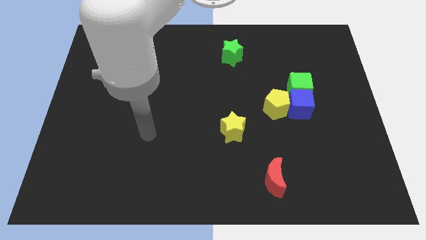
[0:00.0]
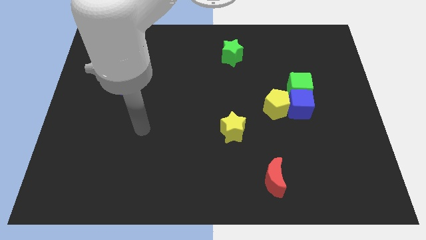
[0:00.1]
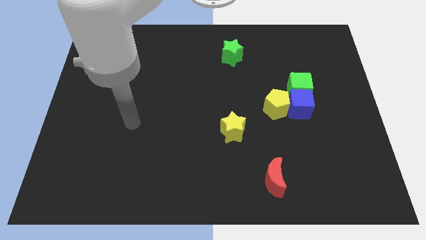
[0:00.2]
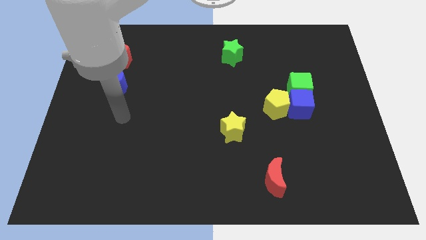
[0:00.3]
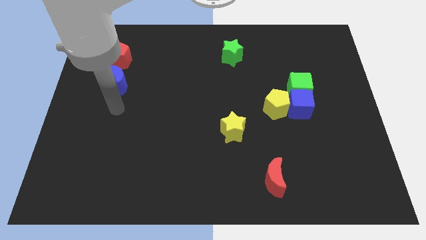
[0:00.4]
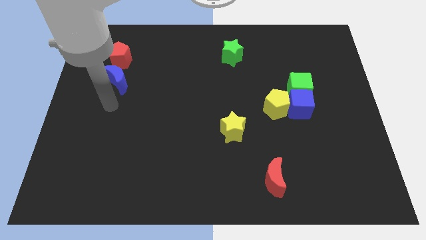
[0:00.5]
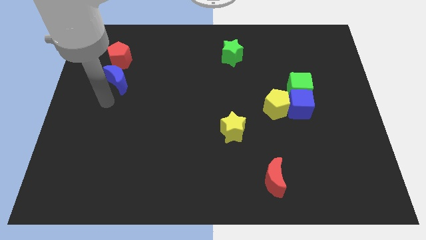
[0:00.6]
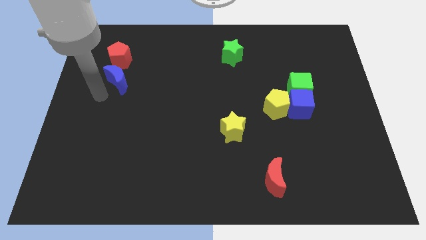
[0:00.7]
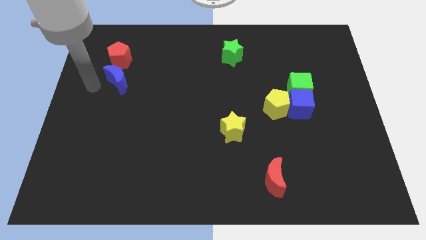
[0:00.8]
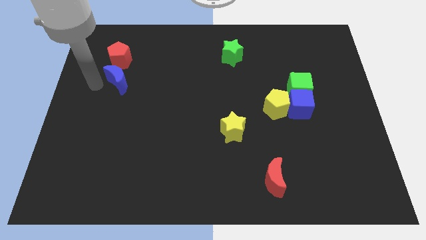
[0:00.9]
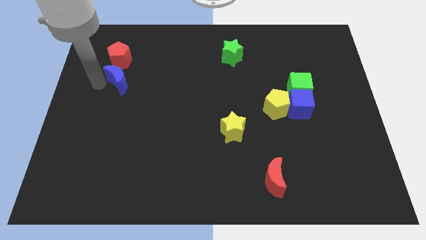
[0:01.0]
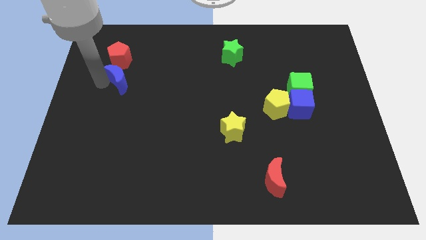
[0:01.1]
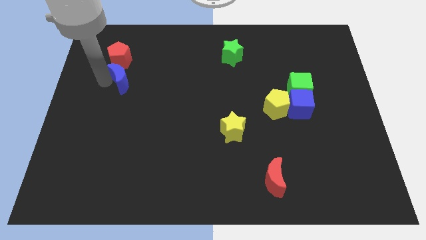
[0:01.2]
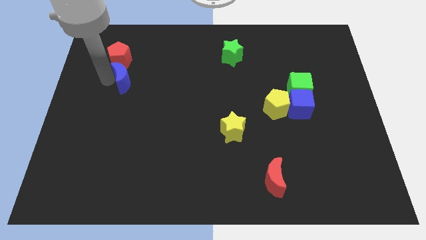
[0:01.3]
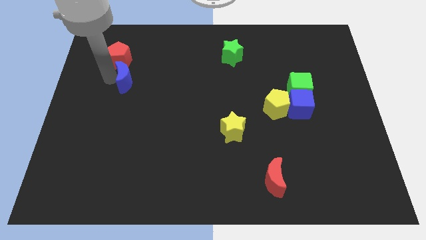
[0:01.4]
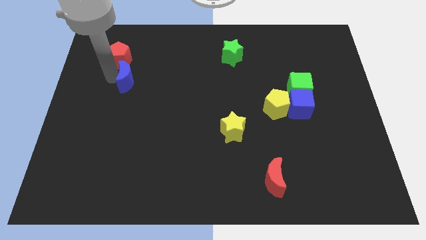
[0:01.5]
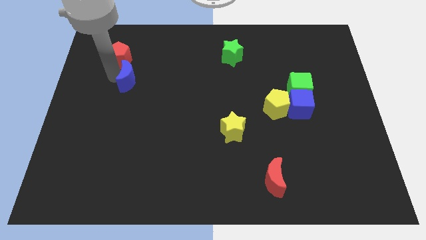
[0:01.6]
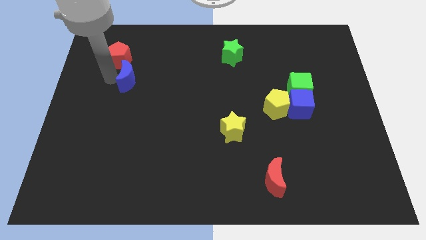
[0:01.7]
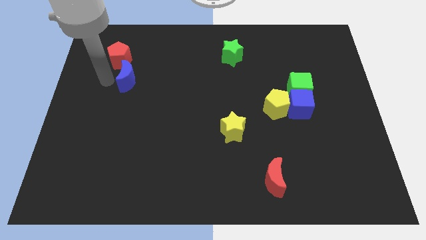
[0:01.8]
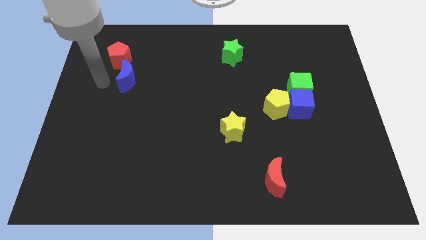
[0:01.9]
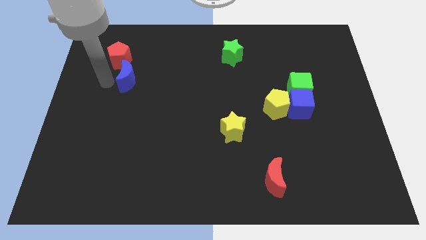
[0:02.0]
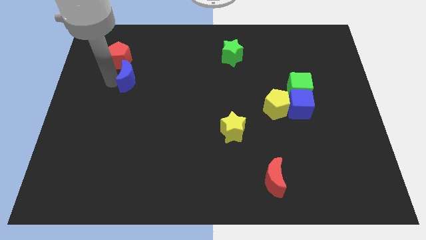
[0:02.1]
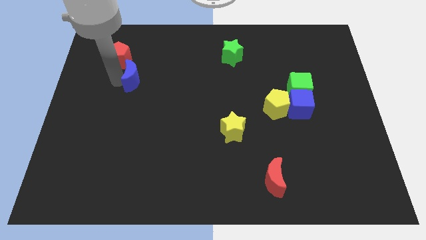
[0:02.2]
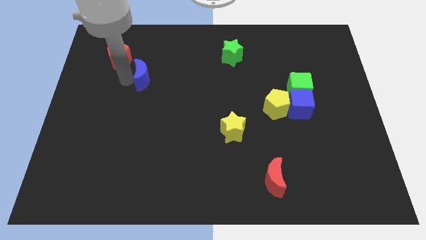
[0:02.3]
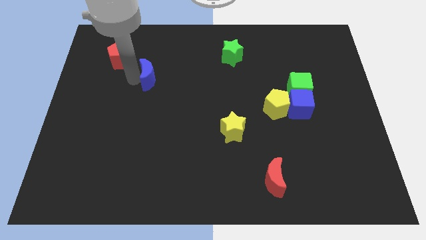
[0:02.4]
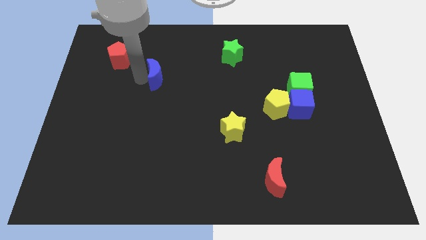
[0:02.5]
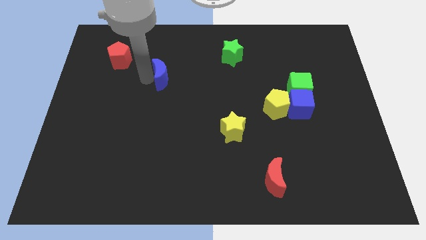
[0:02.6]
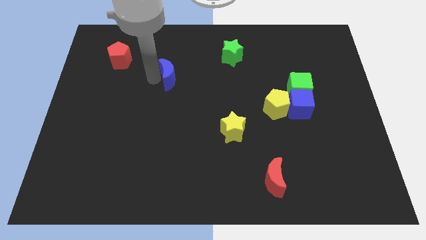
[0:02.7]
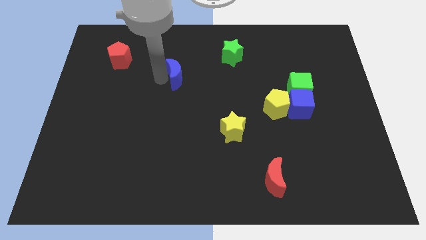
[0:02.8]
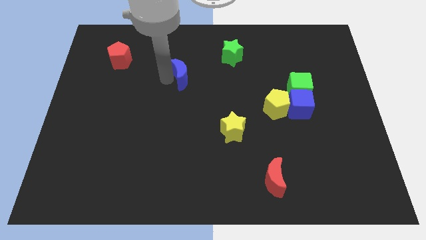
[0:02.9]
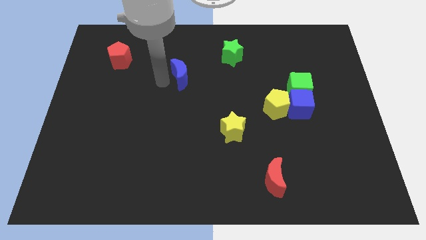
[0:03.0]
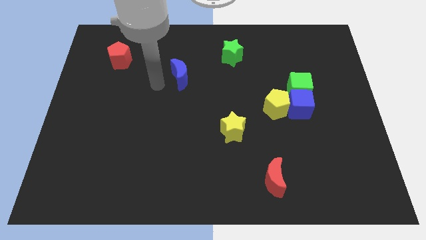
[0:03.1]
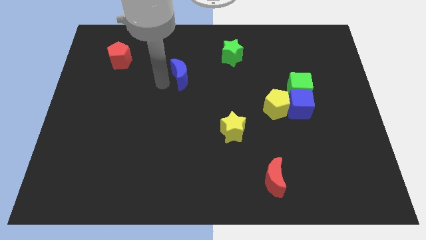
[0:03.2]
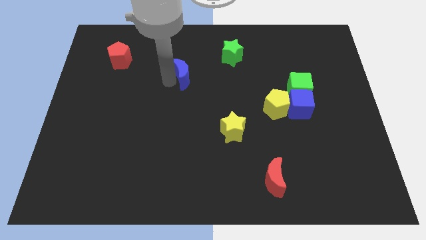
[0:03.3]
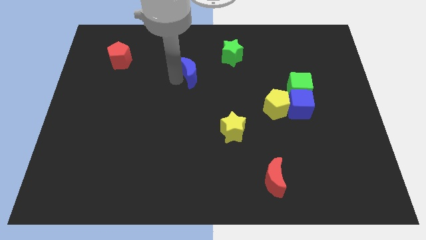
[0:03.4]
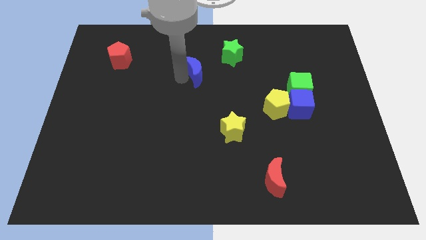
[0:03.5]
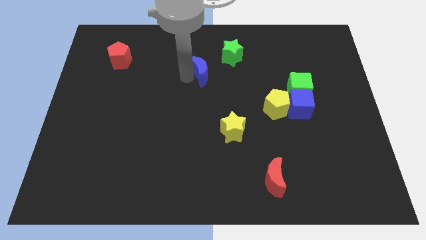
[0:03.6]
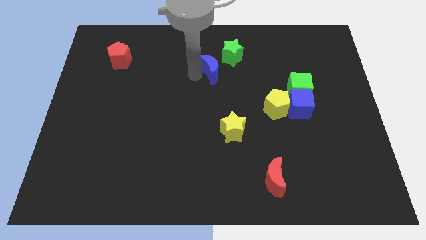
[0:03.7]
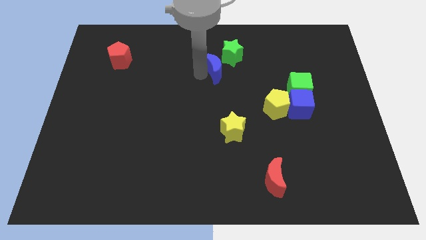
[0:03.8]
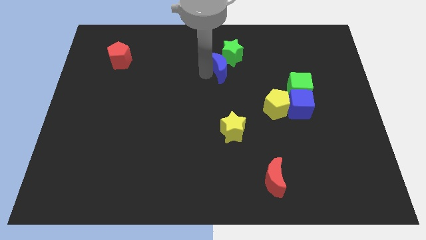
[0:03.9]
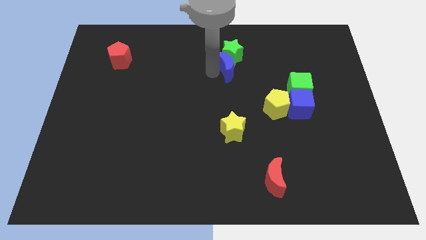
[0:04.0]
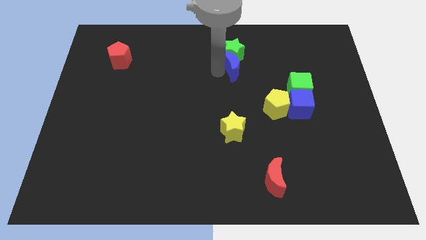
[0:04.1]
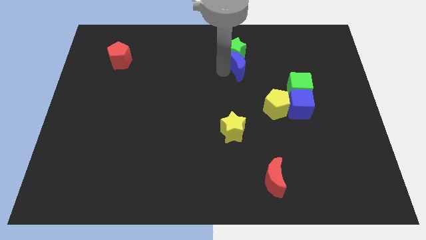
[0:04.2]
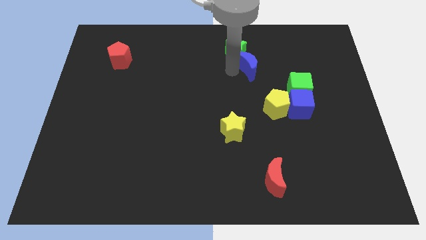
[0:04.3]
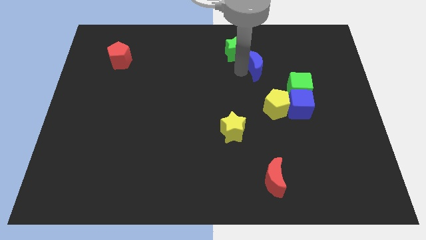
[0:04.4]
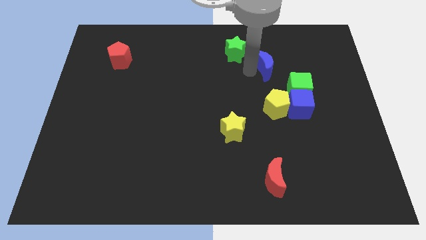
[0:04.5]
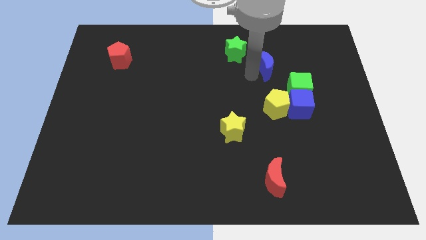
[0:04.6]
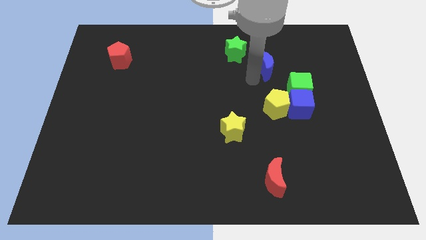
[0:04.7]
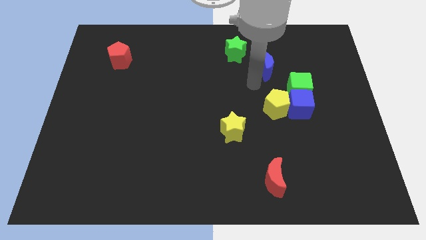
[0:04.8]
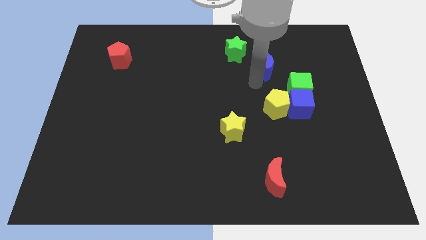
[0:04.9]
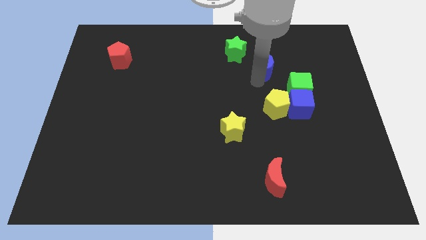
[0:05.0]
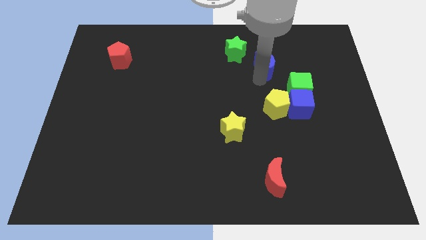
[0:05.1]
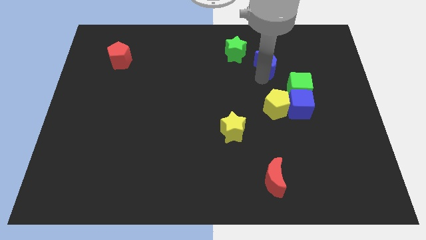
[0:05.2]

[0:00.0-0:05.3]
slide the blue moon to the right side of the green star

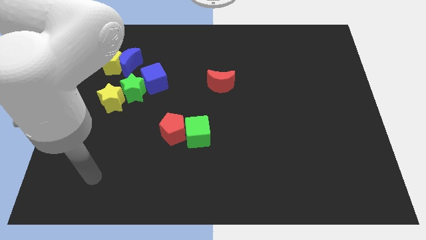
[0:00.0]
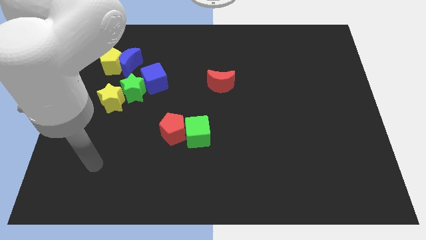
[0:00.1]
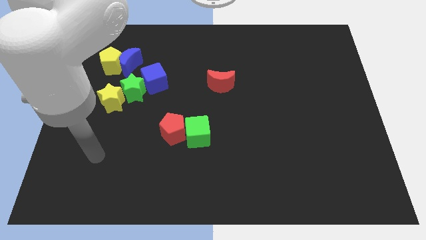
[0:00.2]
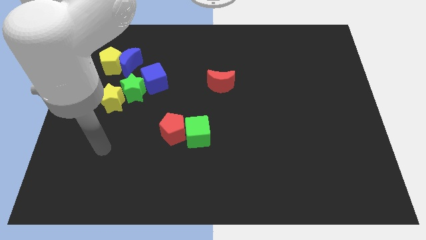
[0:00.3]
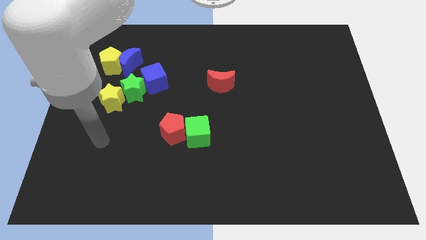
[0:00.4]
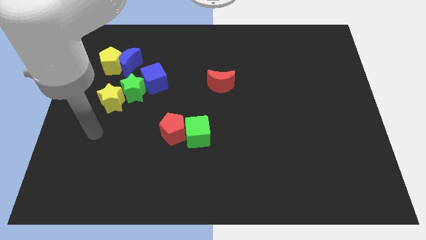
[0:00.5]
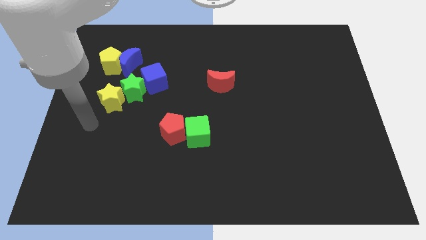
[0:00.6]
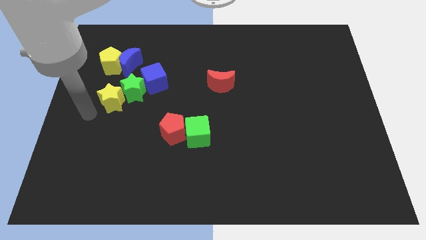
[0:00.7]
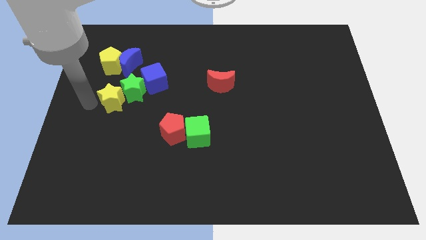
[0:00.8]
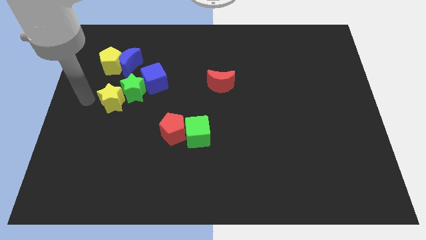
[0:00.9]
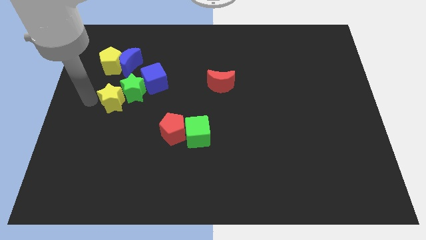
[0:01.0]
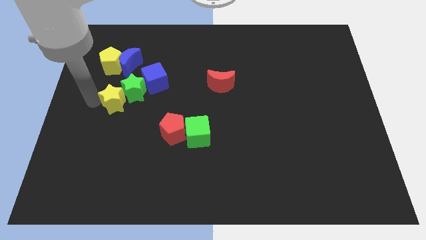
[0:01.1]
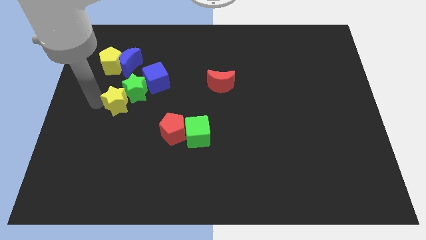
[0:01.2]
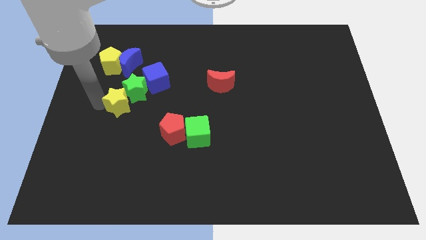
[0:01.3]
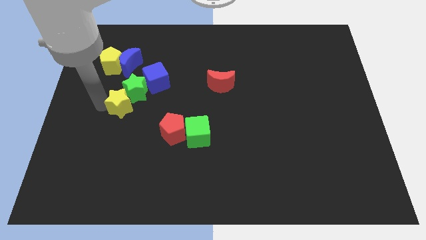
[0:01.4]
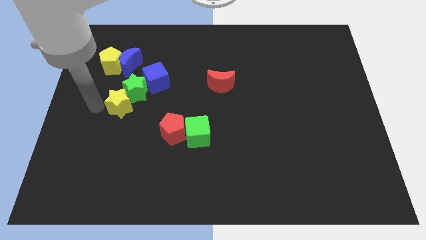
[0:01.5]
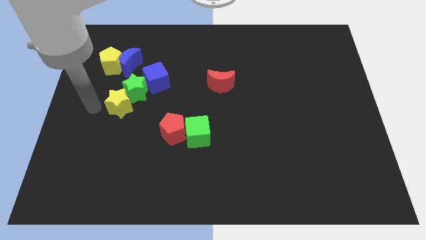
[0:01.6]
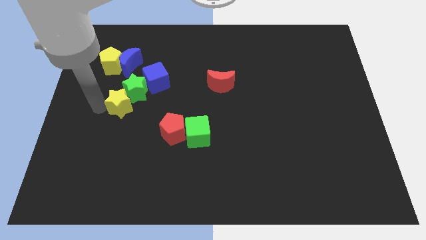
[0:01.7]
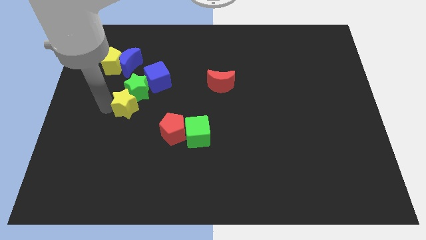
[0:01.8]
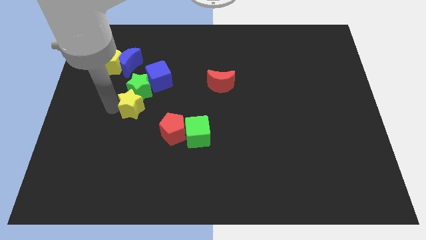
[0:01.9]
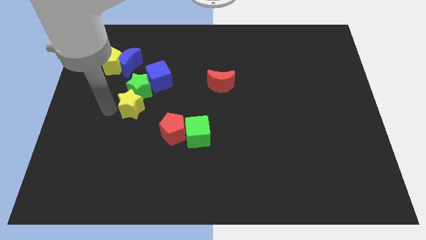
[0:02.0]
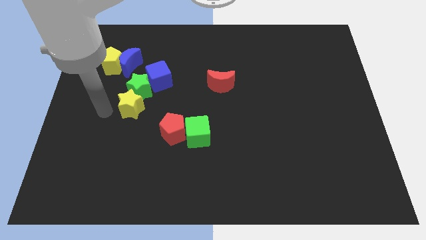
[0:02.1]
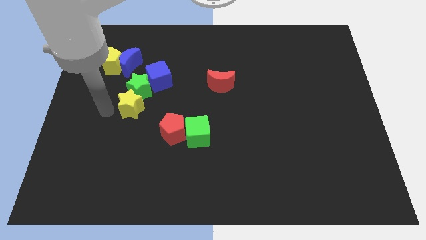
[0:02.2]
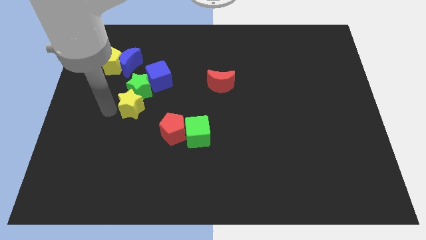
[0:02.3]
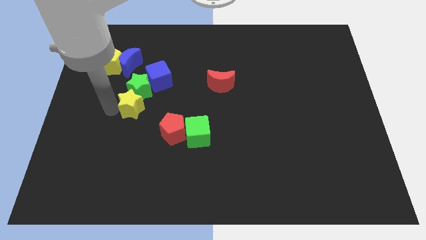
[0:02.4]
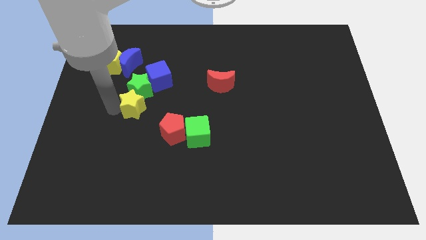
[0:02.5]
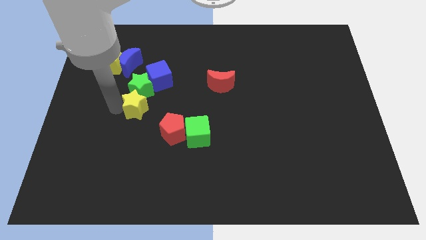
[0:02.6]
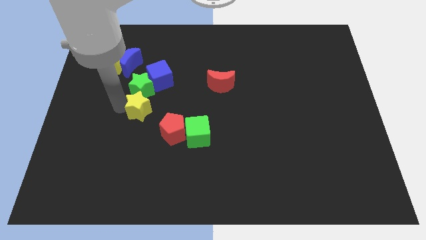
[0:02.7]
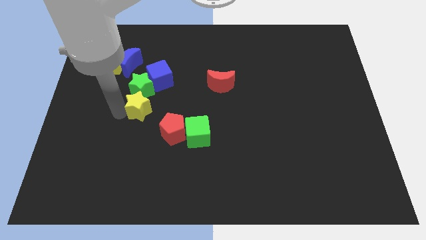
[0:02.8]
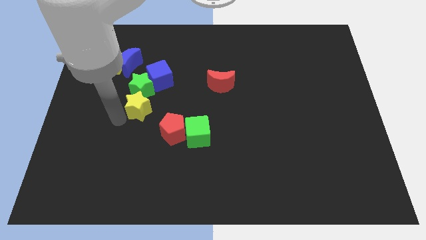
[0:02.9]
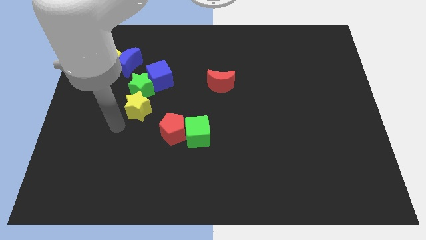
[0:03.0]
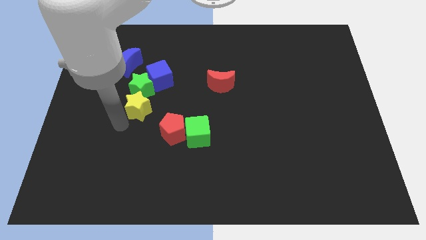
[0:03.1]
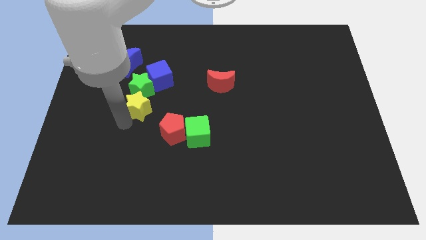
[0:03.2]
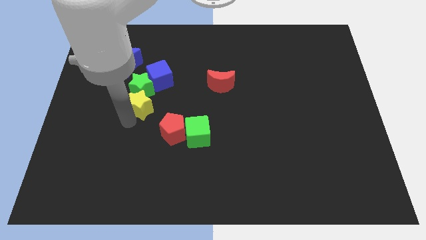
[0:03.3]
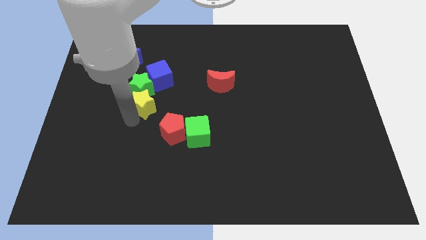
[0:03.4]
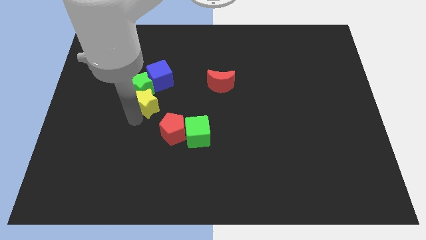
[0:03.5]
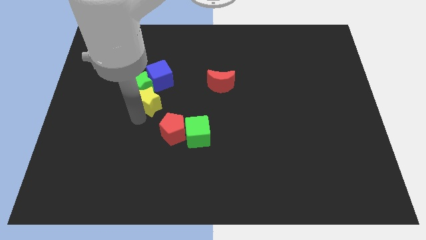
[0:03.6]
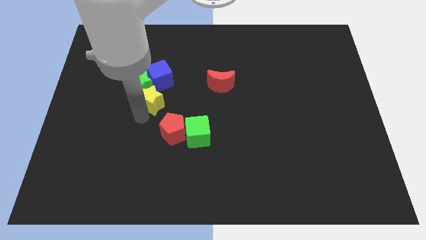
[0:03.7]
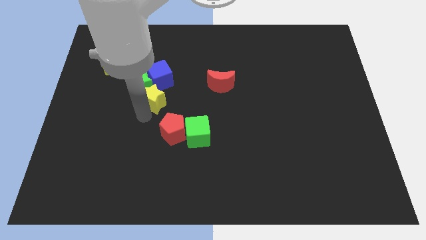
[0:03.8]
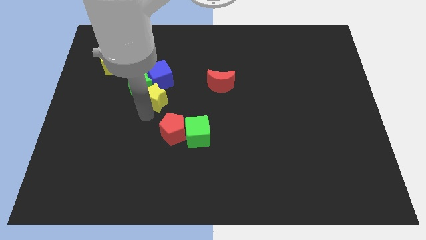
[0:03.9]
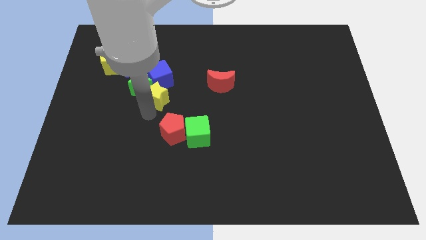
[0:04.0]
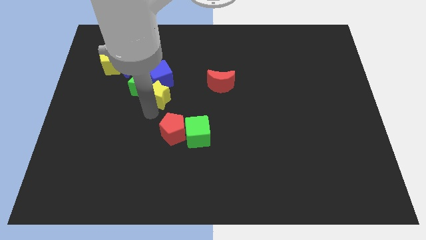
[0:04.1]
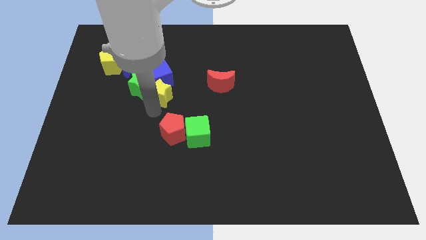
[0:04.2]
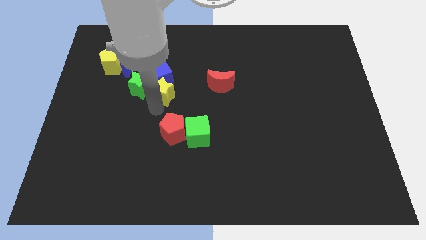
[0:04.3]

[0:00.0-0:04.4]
slide the yellow star to the left side of the red moon
